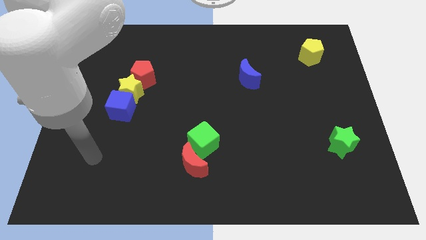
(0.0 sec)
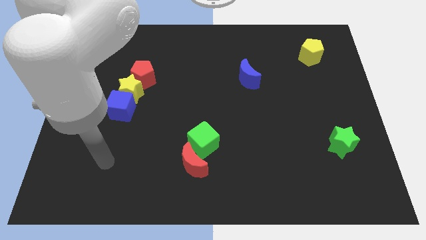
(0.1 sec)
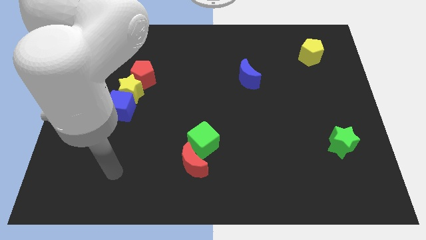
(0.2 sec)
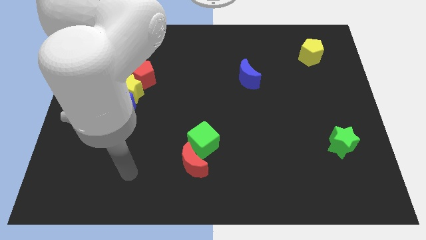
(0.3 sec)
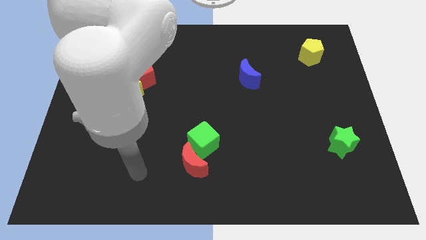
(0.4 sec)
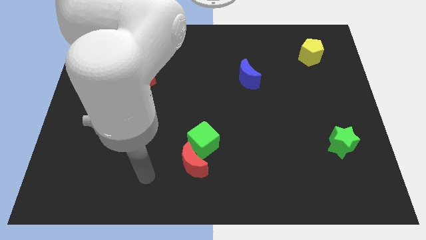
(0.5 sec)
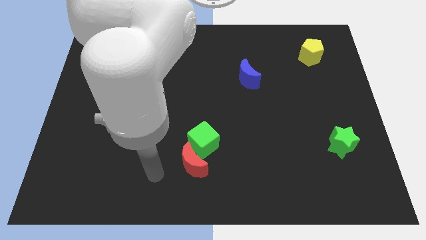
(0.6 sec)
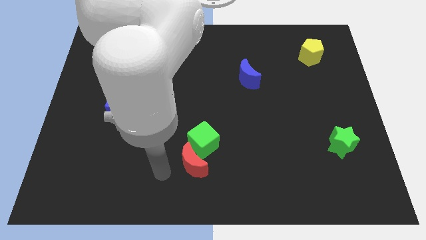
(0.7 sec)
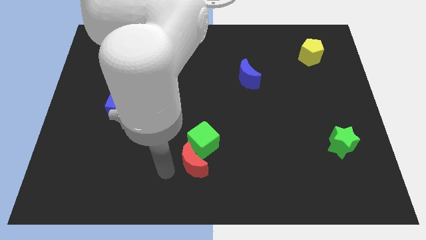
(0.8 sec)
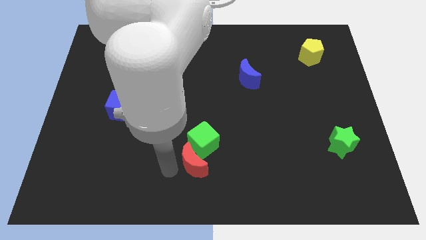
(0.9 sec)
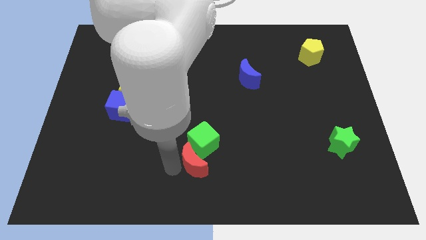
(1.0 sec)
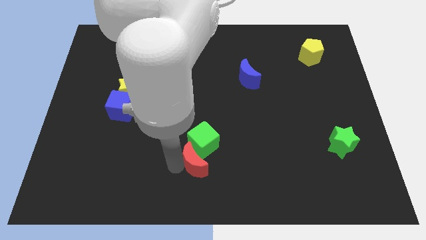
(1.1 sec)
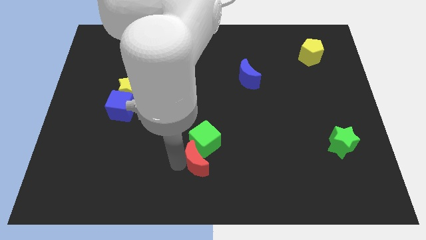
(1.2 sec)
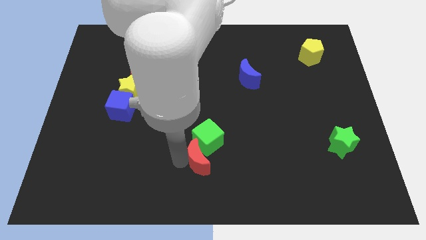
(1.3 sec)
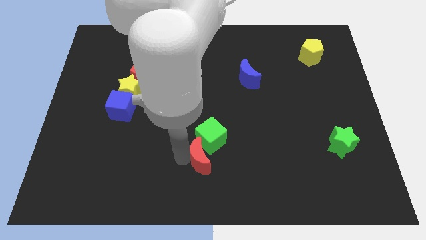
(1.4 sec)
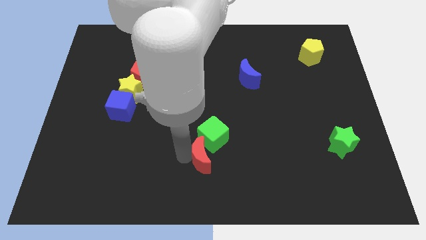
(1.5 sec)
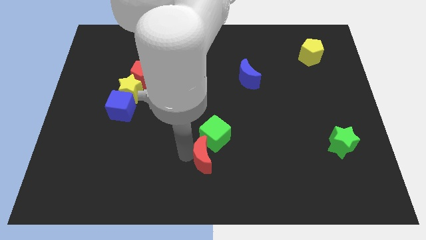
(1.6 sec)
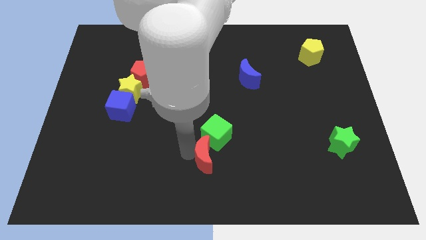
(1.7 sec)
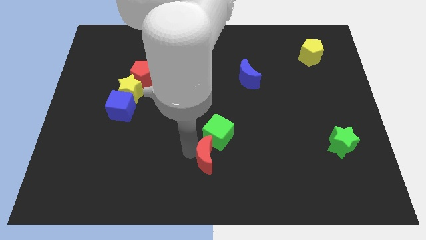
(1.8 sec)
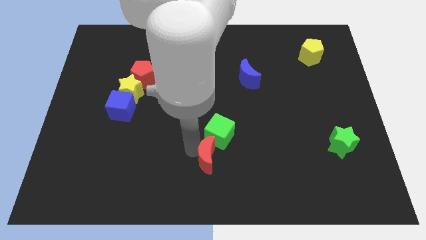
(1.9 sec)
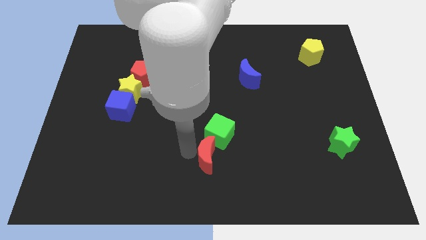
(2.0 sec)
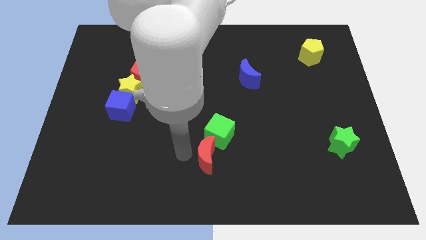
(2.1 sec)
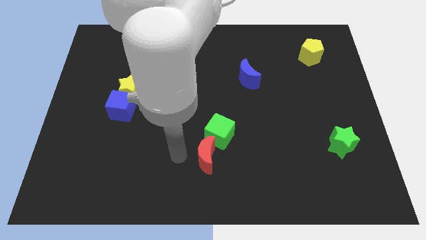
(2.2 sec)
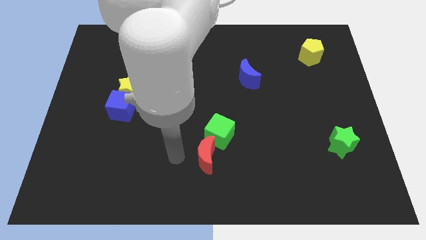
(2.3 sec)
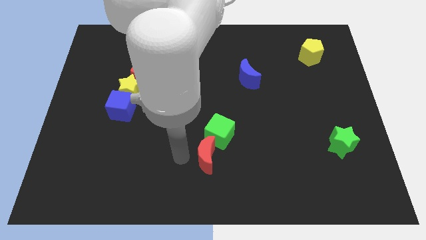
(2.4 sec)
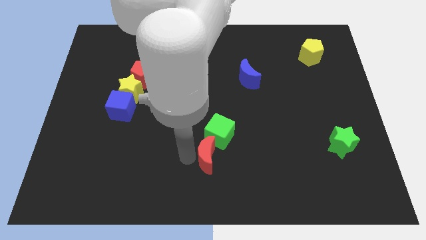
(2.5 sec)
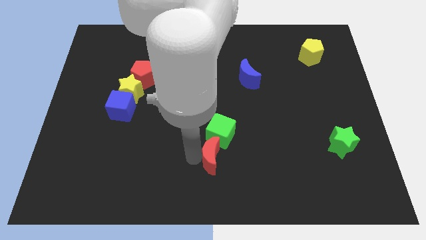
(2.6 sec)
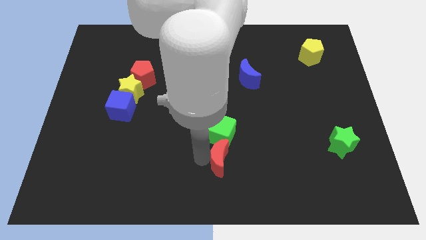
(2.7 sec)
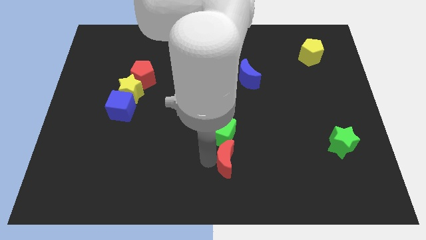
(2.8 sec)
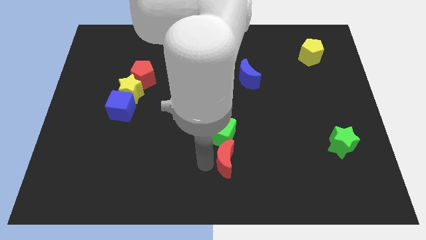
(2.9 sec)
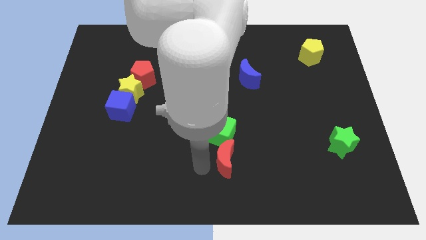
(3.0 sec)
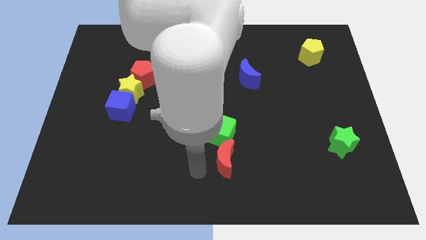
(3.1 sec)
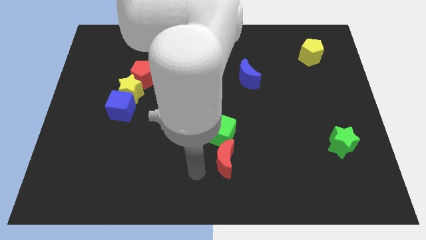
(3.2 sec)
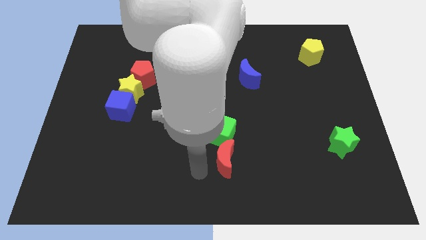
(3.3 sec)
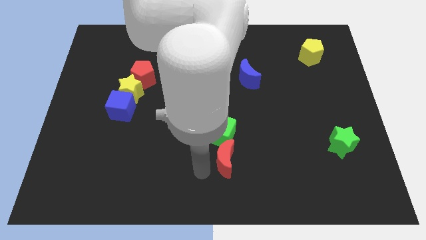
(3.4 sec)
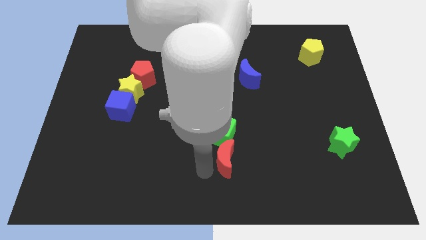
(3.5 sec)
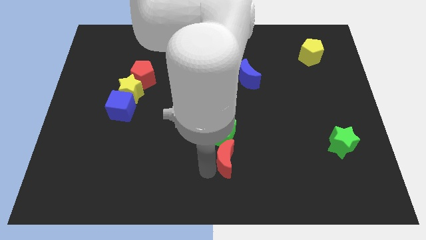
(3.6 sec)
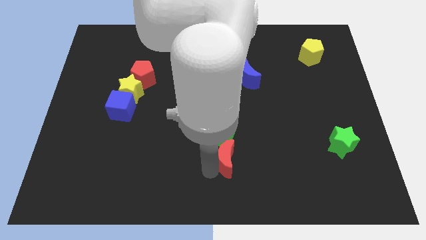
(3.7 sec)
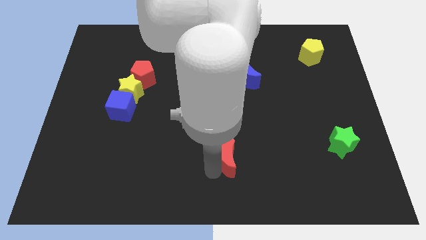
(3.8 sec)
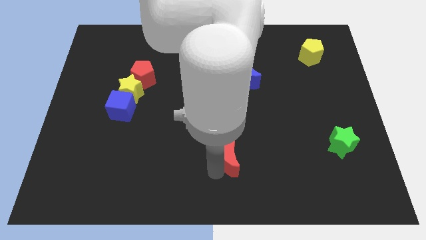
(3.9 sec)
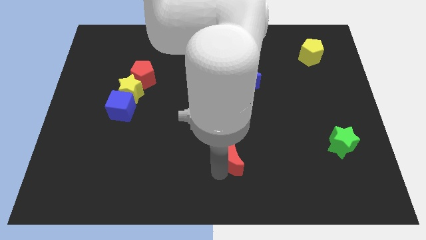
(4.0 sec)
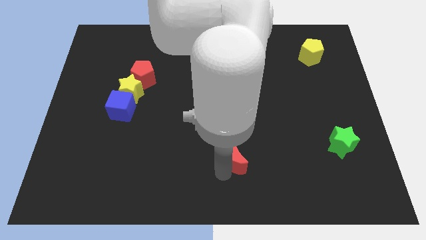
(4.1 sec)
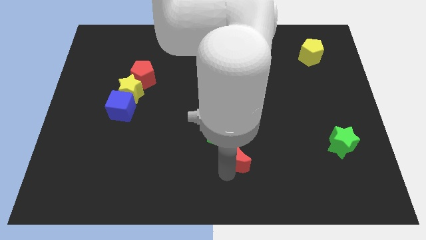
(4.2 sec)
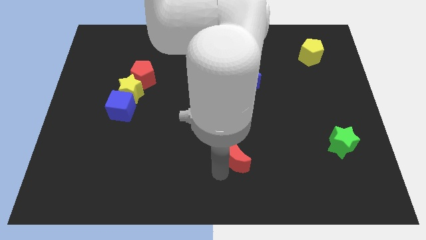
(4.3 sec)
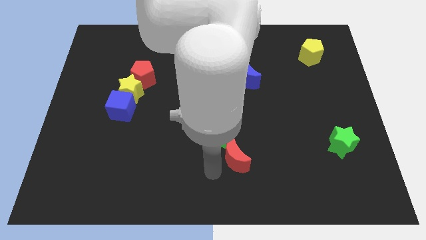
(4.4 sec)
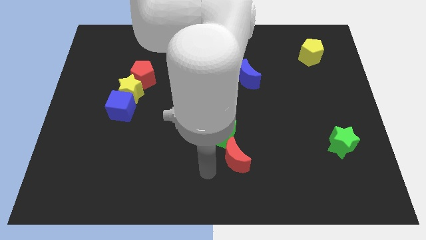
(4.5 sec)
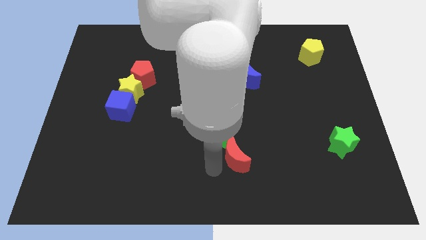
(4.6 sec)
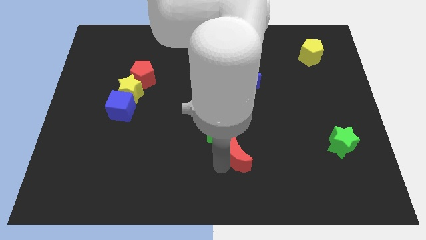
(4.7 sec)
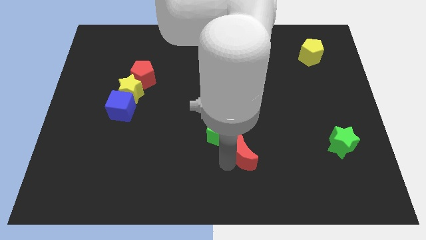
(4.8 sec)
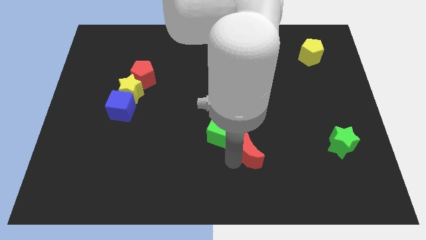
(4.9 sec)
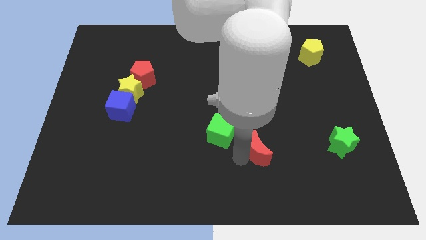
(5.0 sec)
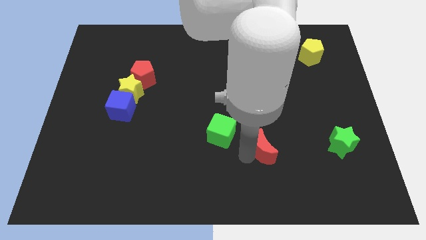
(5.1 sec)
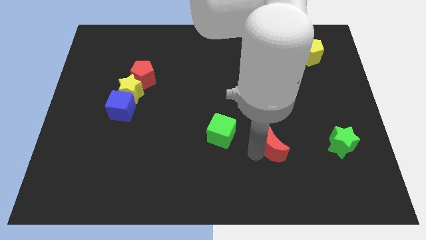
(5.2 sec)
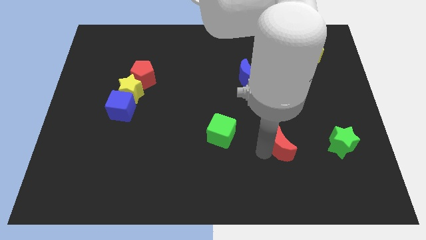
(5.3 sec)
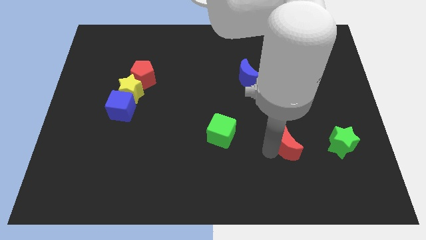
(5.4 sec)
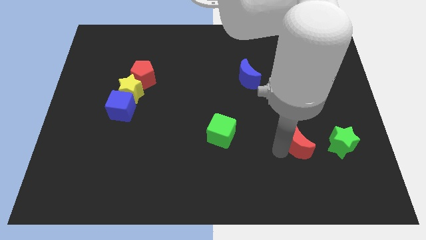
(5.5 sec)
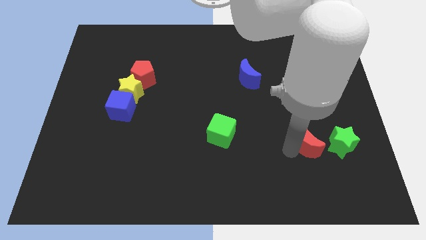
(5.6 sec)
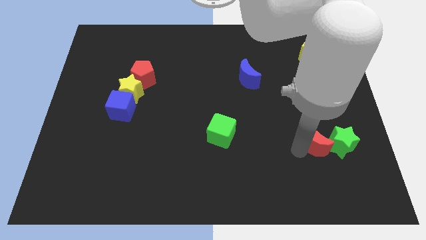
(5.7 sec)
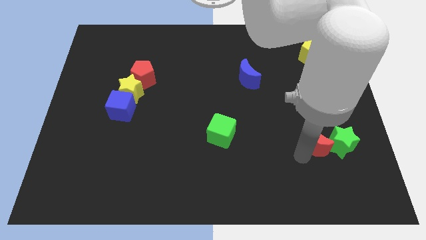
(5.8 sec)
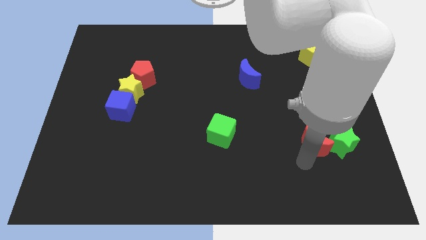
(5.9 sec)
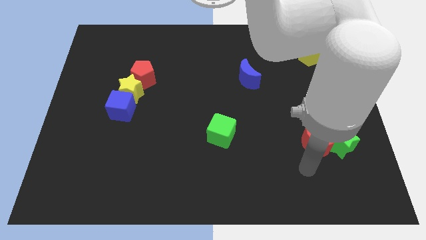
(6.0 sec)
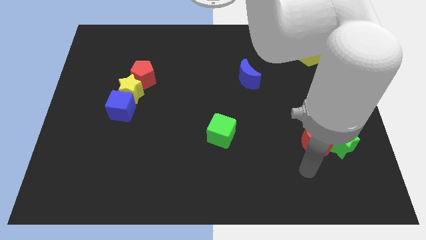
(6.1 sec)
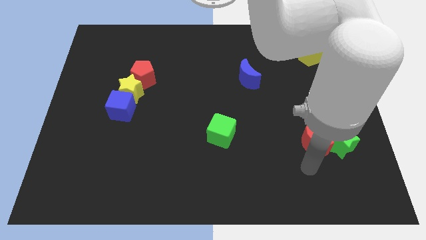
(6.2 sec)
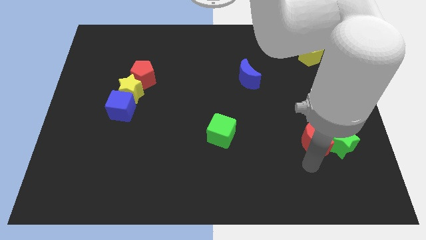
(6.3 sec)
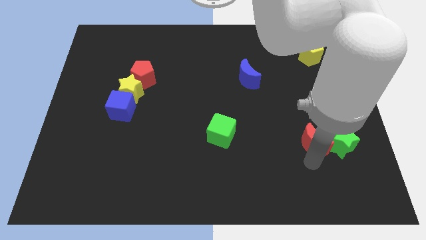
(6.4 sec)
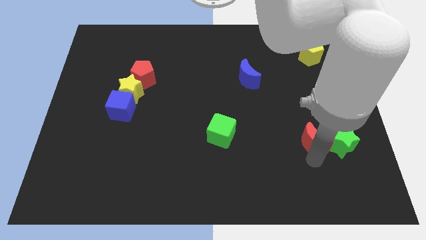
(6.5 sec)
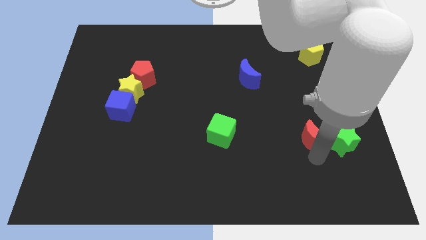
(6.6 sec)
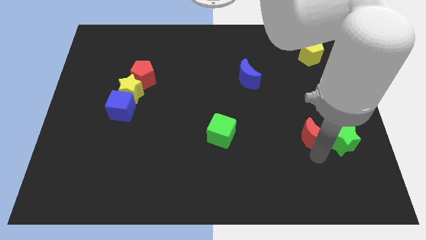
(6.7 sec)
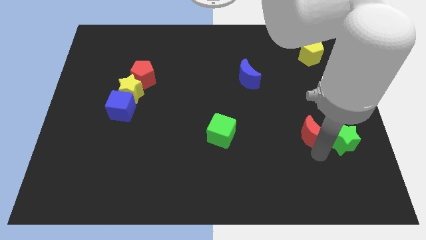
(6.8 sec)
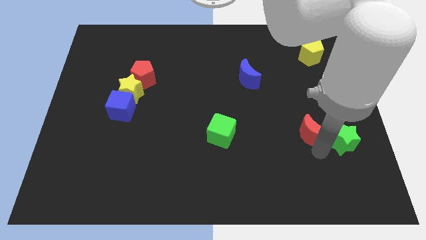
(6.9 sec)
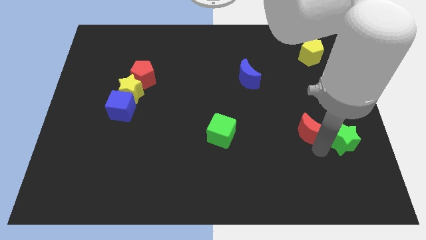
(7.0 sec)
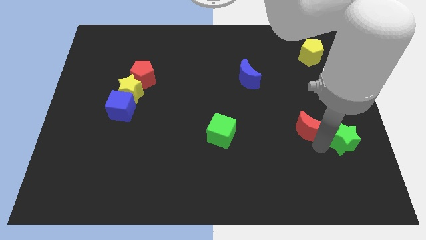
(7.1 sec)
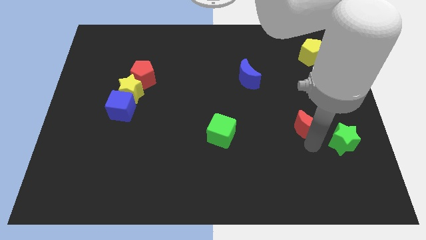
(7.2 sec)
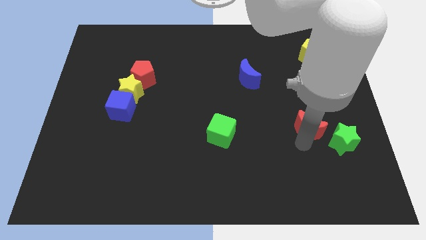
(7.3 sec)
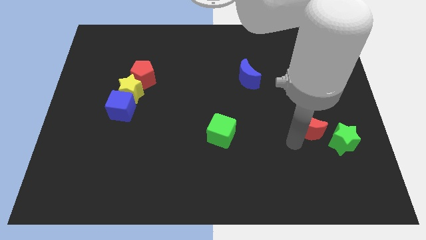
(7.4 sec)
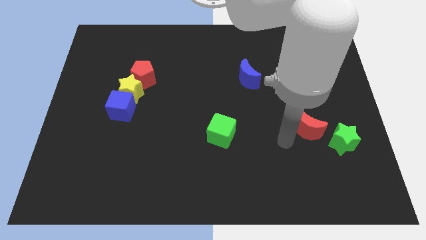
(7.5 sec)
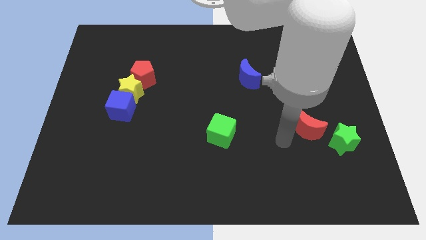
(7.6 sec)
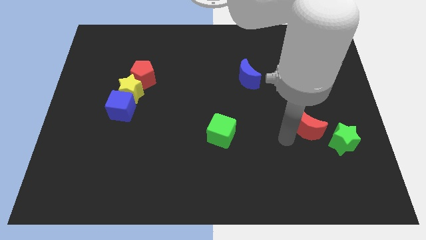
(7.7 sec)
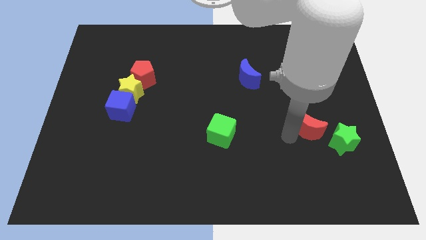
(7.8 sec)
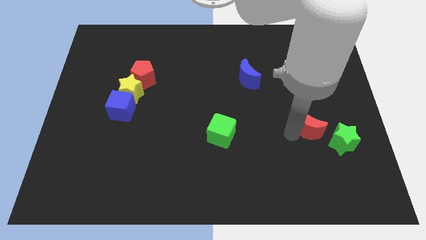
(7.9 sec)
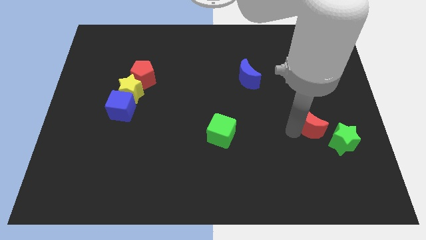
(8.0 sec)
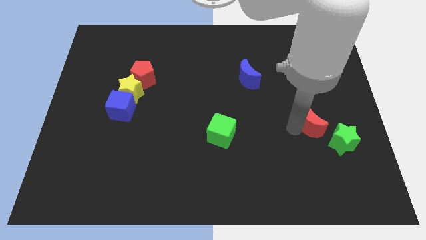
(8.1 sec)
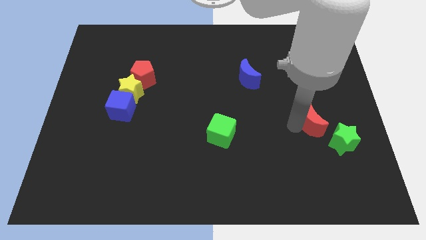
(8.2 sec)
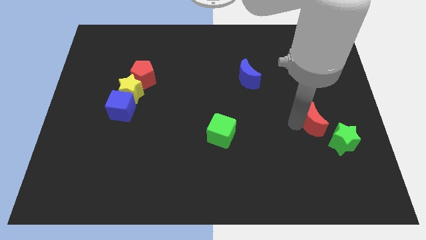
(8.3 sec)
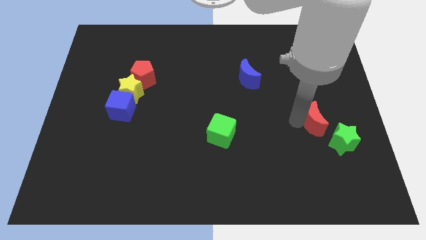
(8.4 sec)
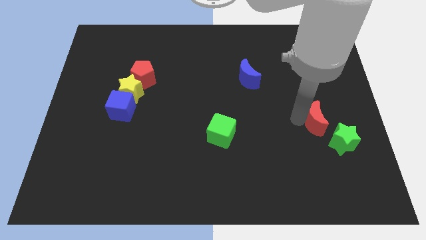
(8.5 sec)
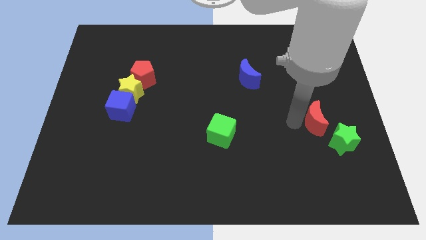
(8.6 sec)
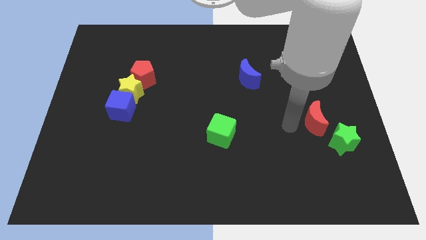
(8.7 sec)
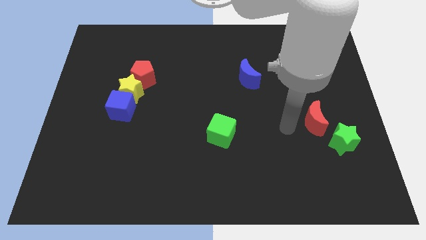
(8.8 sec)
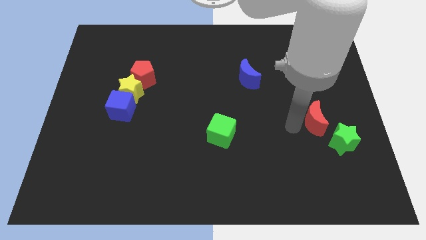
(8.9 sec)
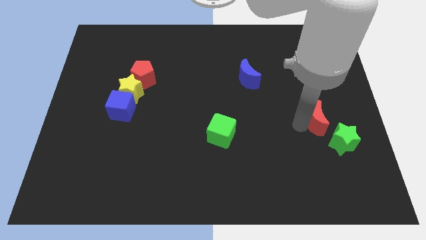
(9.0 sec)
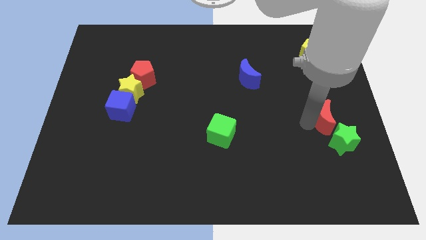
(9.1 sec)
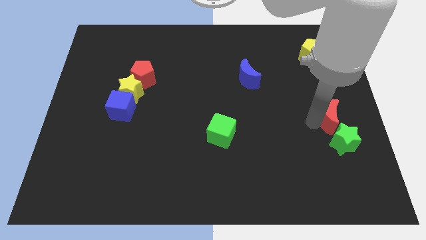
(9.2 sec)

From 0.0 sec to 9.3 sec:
move the red moon to the right side of the board
